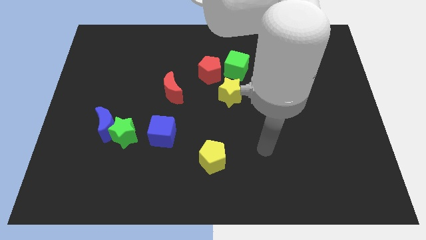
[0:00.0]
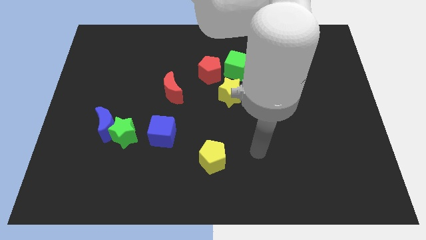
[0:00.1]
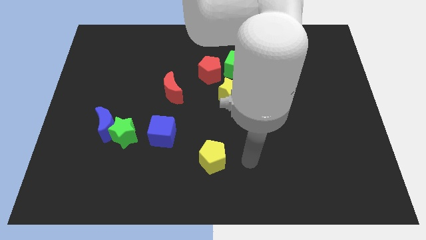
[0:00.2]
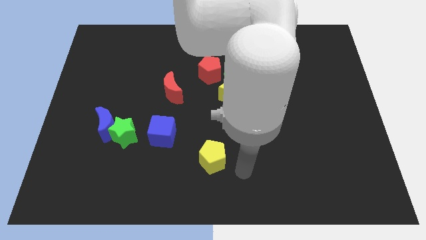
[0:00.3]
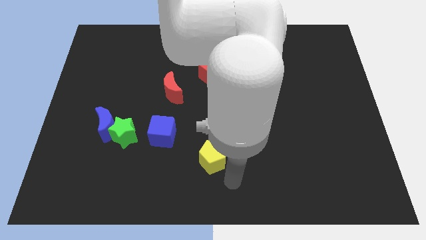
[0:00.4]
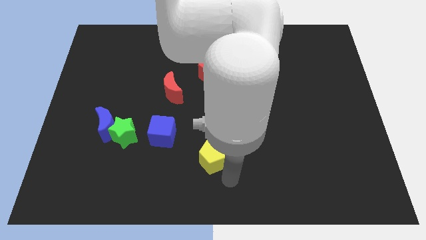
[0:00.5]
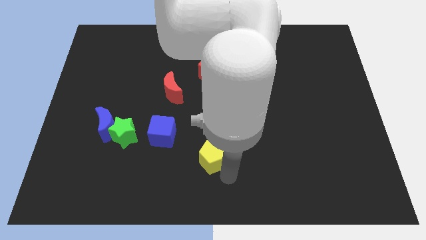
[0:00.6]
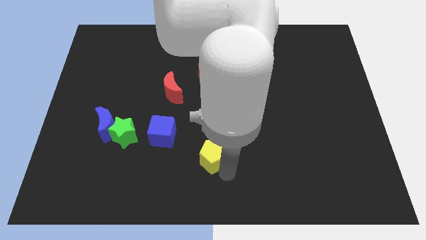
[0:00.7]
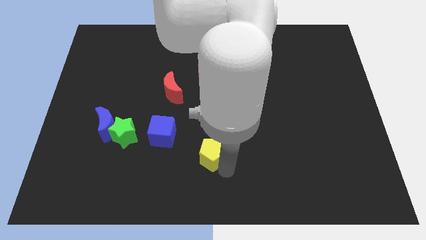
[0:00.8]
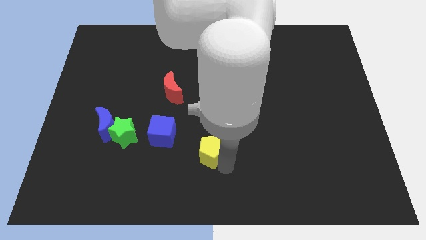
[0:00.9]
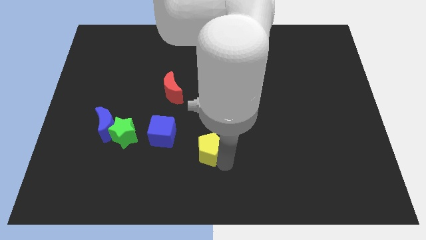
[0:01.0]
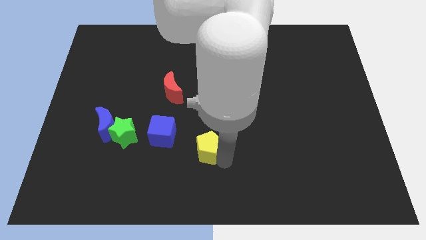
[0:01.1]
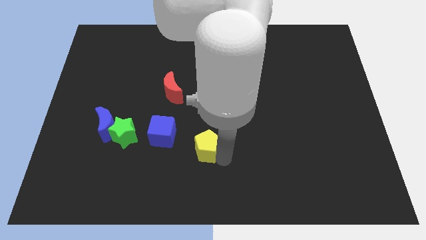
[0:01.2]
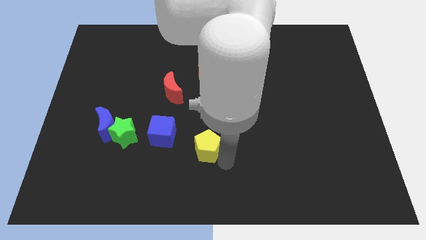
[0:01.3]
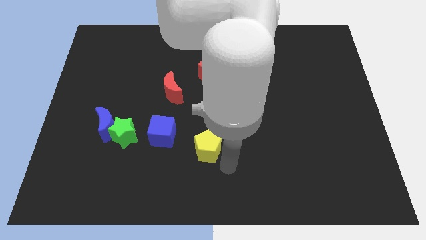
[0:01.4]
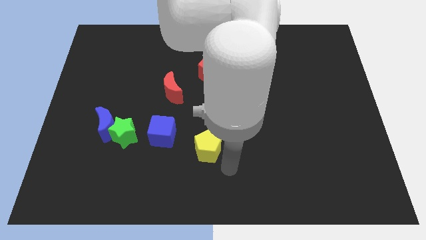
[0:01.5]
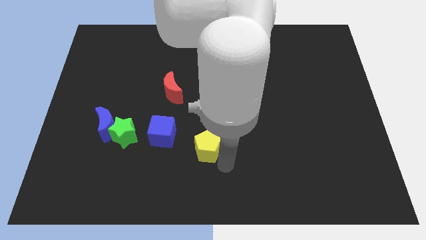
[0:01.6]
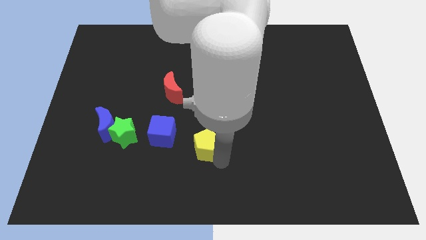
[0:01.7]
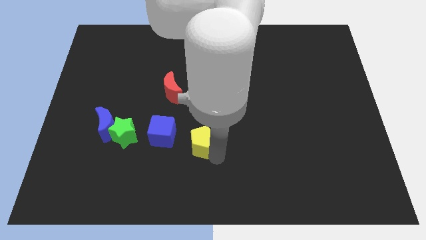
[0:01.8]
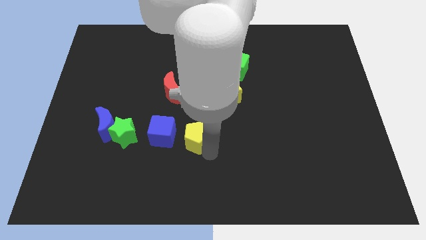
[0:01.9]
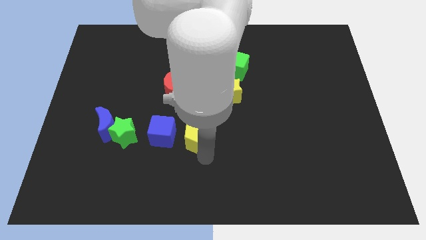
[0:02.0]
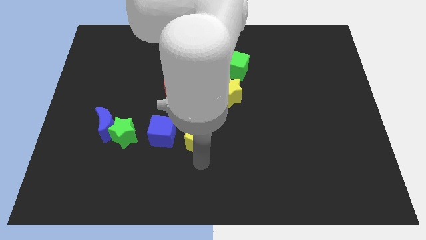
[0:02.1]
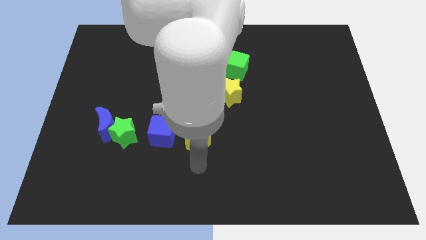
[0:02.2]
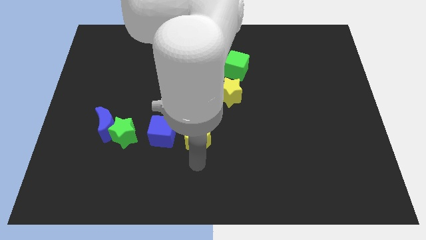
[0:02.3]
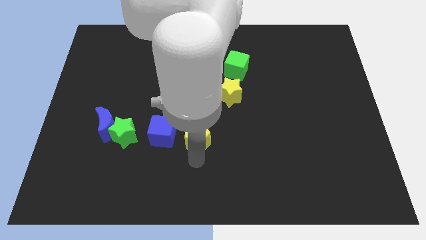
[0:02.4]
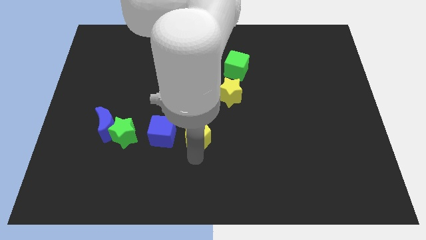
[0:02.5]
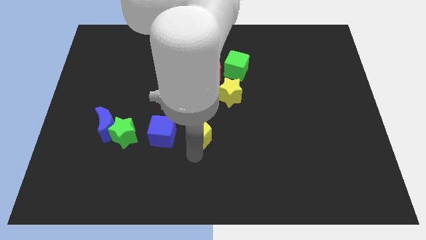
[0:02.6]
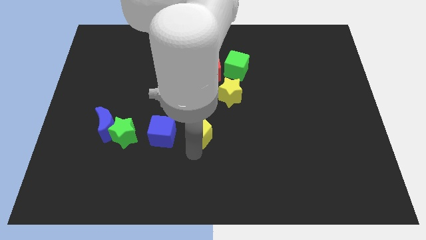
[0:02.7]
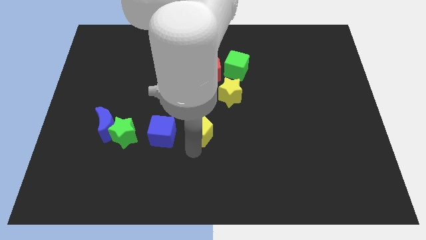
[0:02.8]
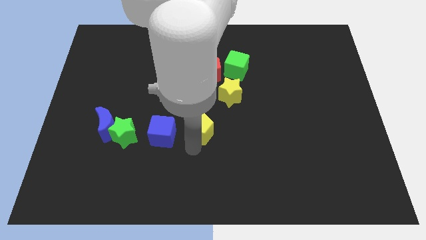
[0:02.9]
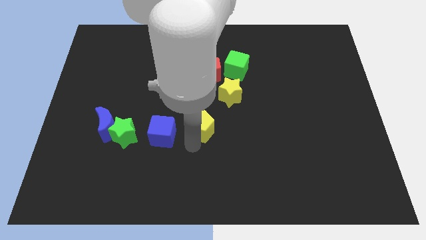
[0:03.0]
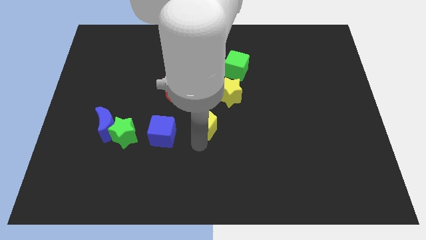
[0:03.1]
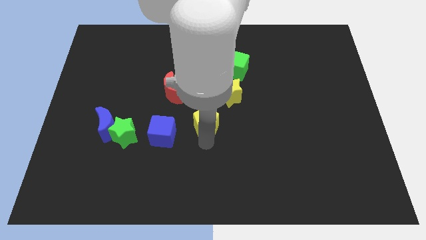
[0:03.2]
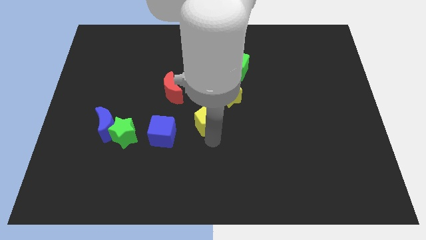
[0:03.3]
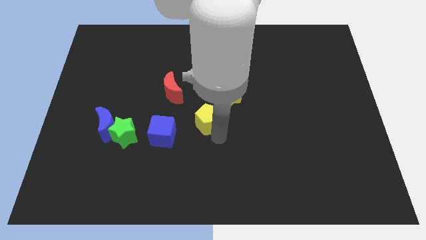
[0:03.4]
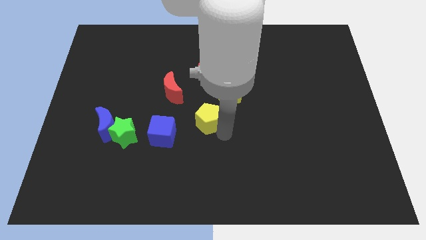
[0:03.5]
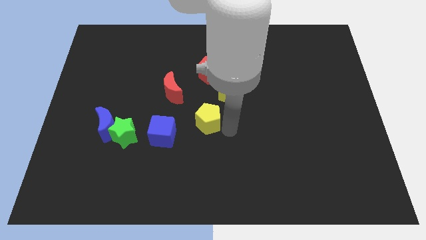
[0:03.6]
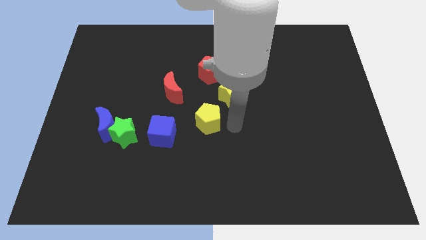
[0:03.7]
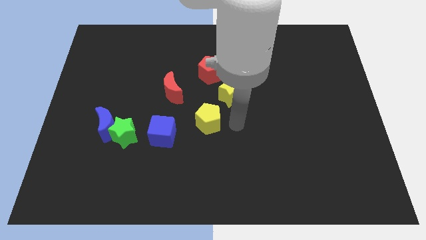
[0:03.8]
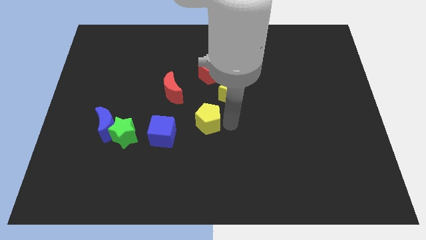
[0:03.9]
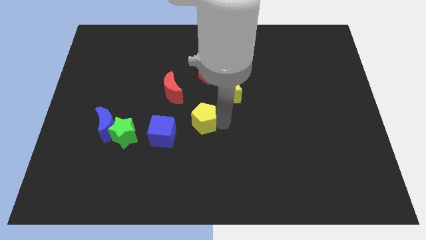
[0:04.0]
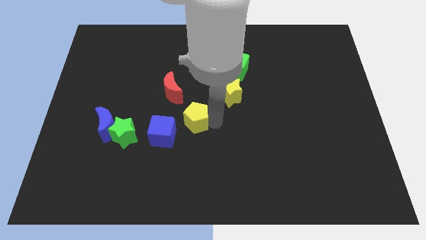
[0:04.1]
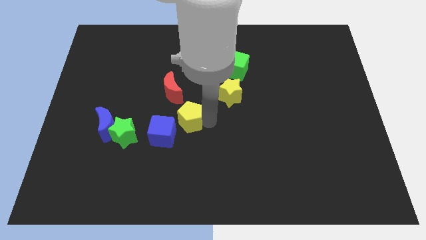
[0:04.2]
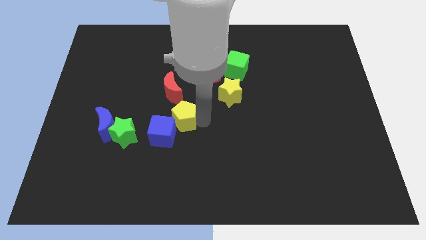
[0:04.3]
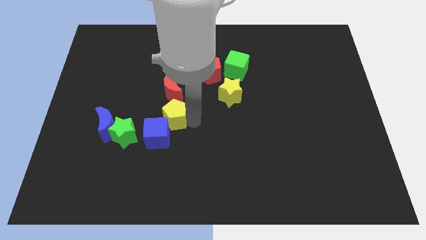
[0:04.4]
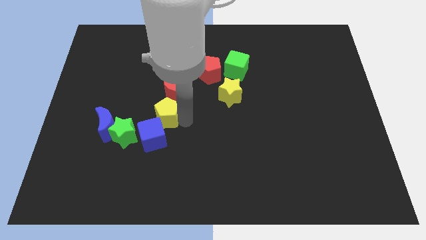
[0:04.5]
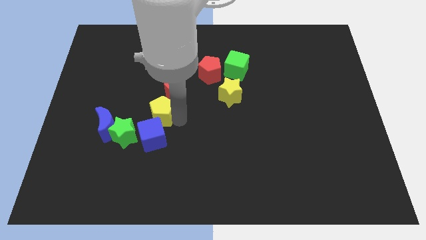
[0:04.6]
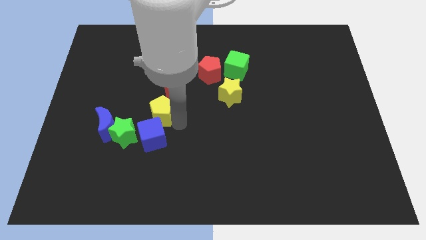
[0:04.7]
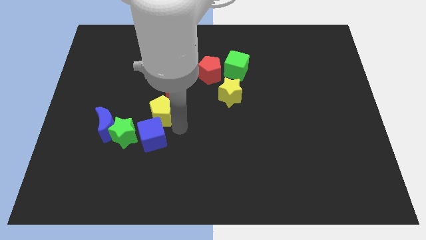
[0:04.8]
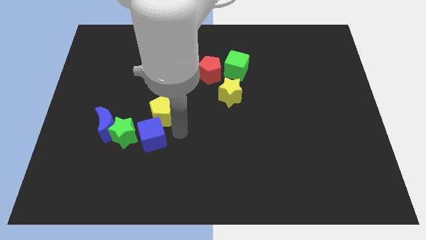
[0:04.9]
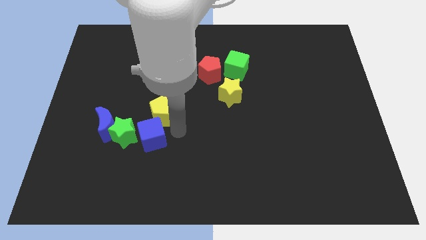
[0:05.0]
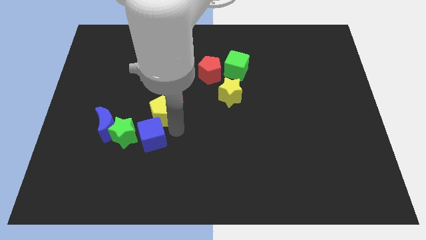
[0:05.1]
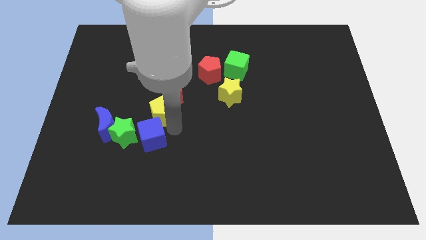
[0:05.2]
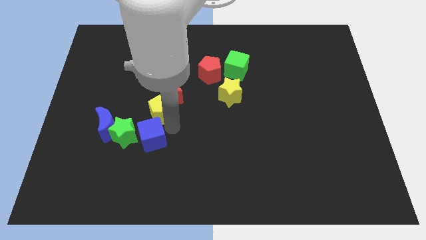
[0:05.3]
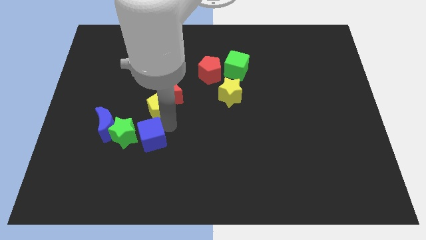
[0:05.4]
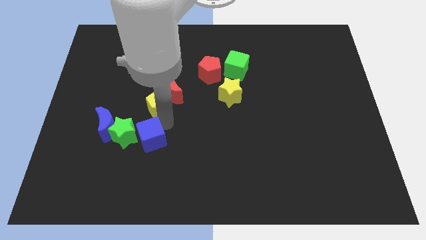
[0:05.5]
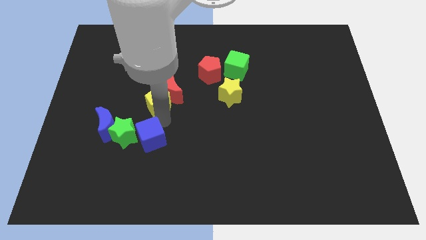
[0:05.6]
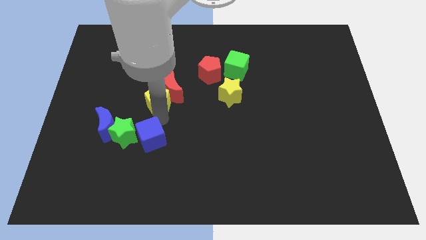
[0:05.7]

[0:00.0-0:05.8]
slide the yellow pentagon upwards and to the left diagonally

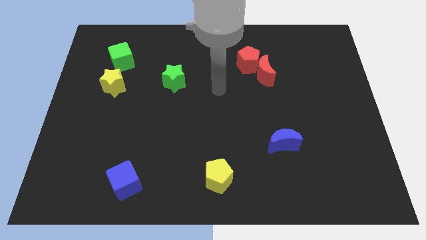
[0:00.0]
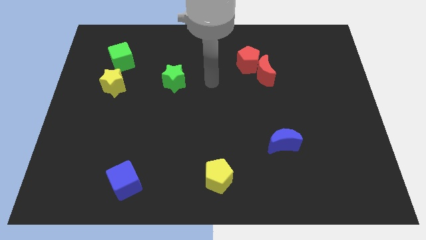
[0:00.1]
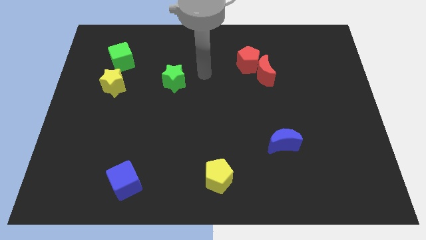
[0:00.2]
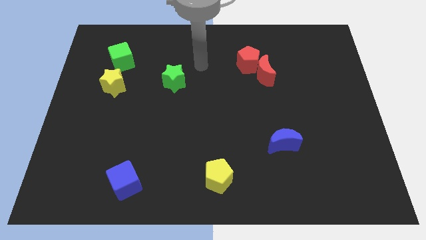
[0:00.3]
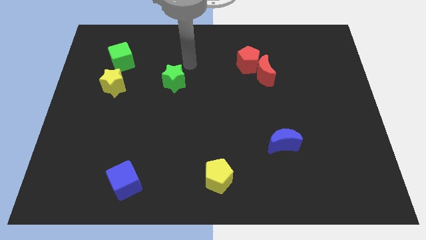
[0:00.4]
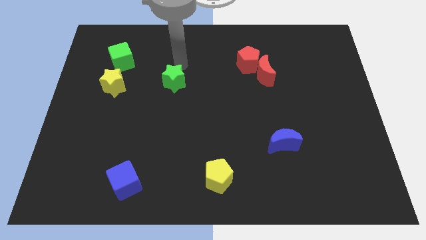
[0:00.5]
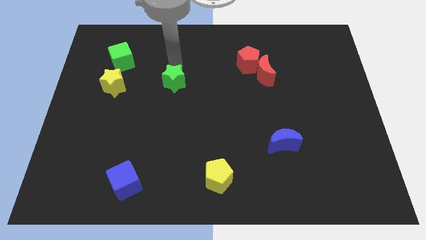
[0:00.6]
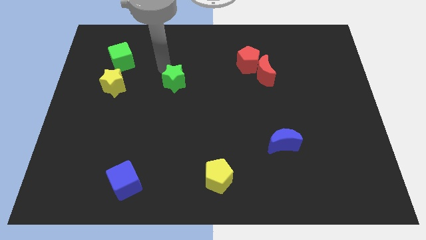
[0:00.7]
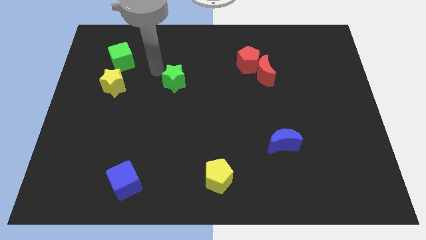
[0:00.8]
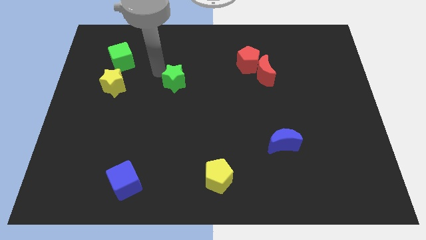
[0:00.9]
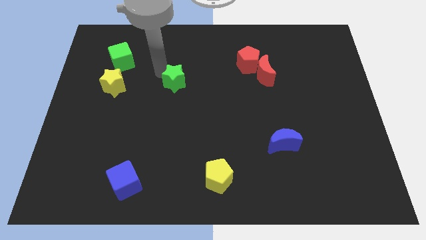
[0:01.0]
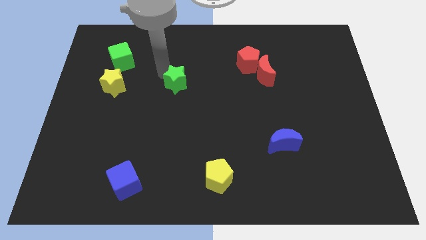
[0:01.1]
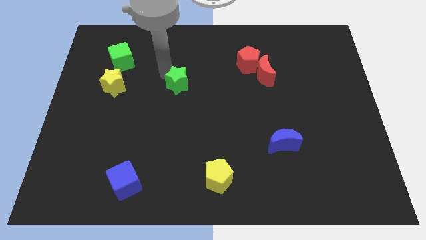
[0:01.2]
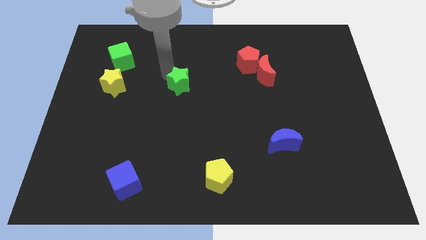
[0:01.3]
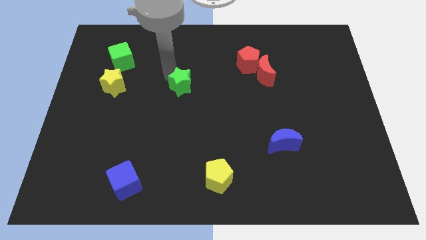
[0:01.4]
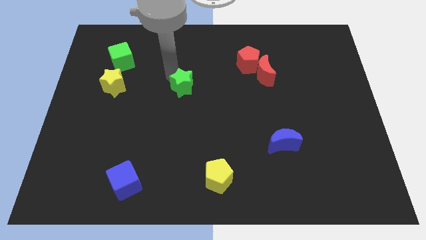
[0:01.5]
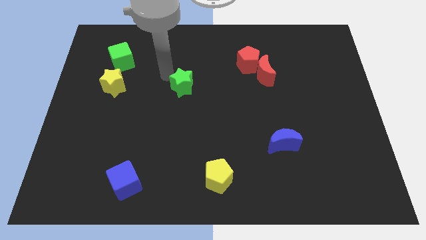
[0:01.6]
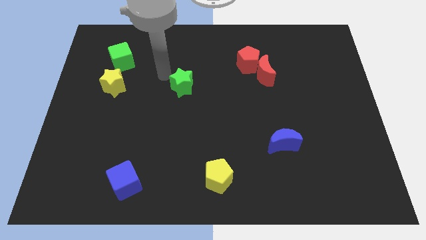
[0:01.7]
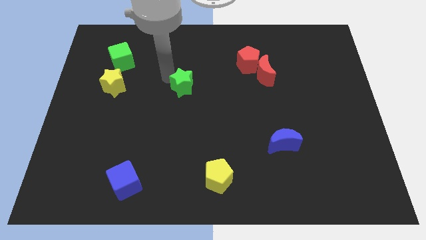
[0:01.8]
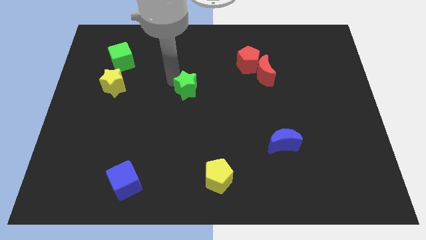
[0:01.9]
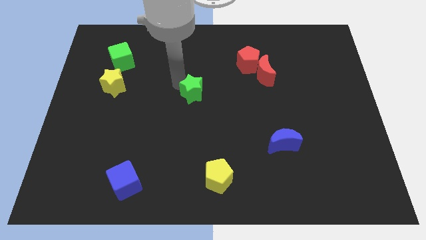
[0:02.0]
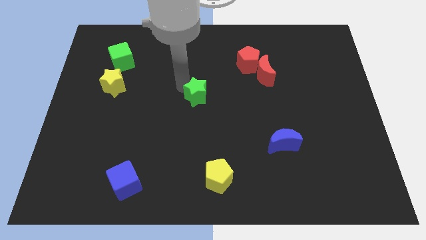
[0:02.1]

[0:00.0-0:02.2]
slightly slide the green star downwards and then to the right

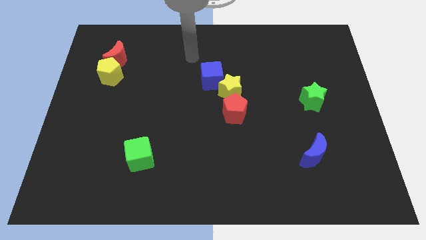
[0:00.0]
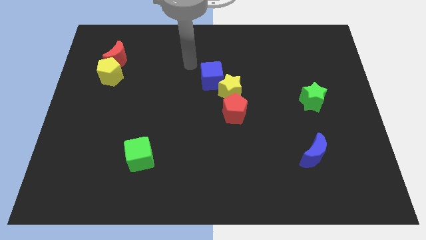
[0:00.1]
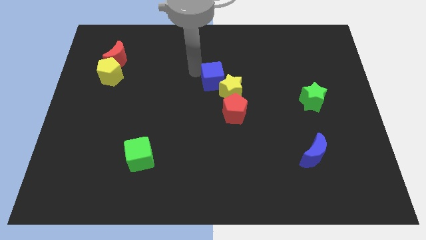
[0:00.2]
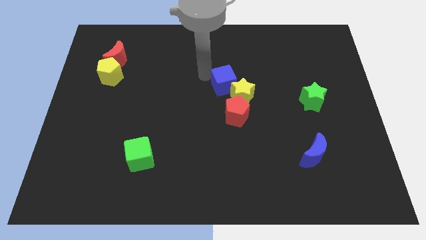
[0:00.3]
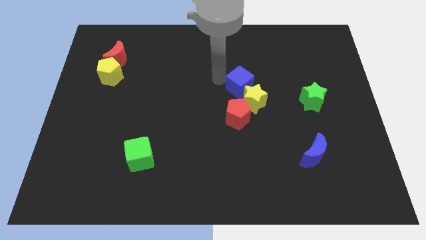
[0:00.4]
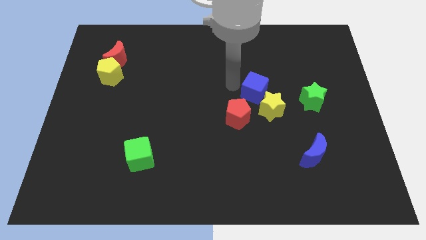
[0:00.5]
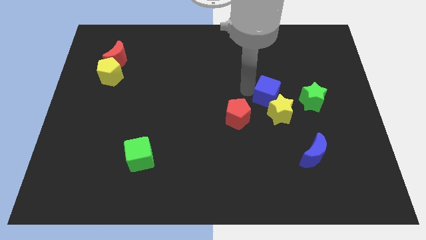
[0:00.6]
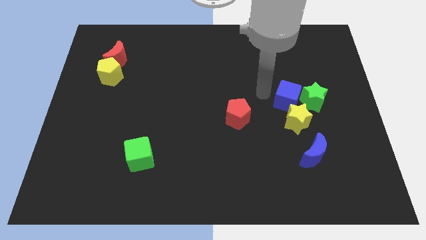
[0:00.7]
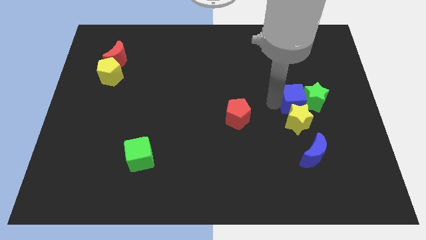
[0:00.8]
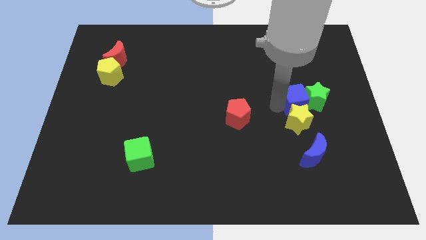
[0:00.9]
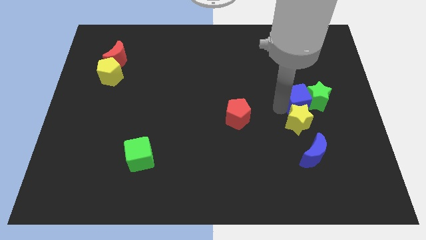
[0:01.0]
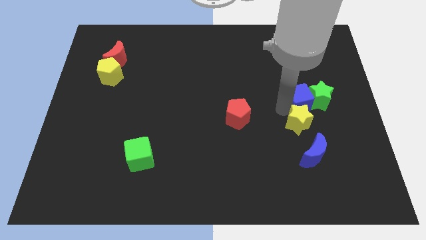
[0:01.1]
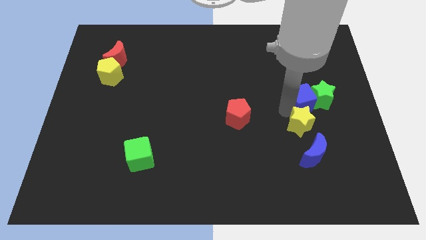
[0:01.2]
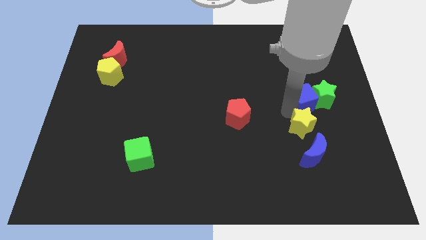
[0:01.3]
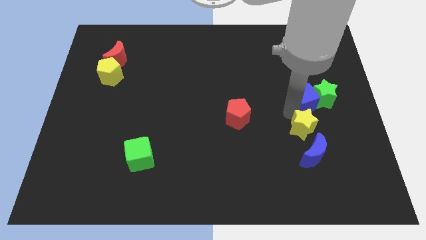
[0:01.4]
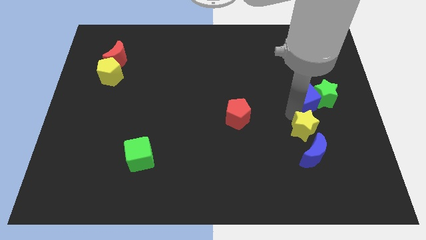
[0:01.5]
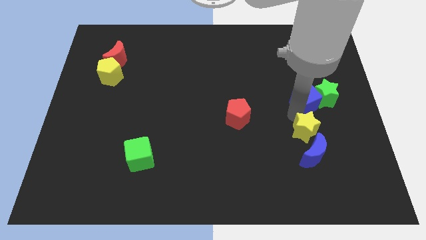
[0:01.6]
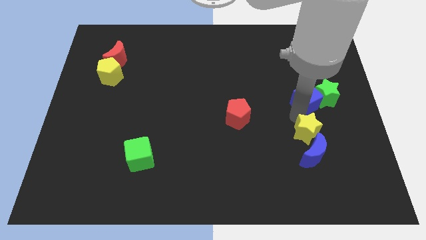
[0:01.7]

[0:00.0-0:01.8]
move the yellow star diagonally down and to the right
